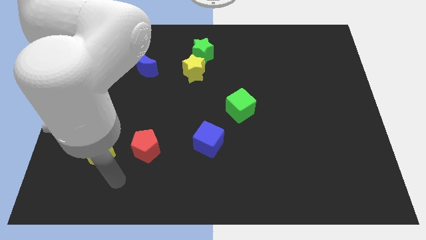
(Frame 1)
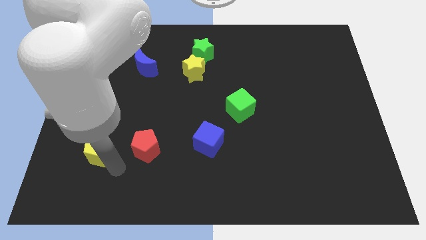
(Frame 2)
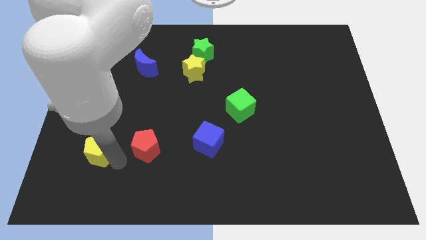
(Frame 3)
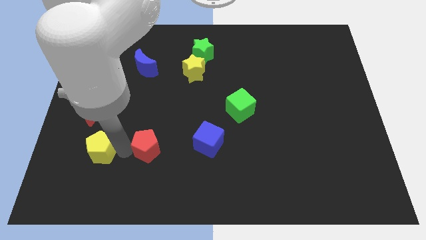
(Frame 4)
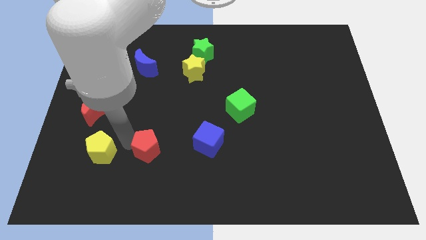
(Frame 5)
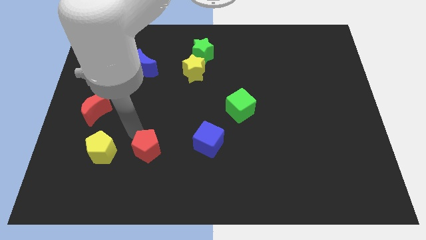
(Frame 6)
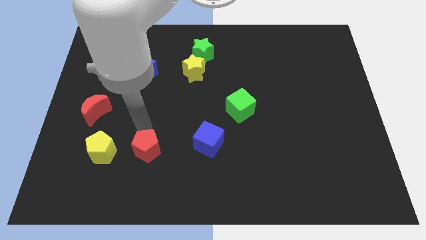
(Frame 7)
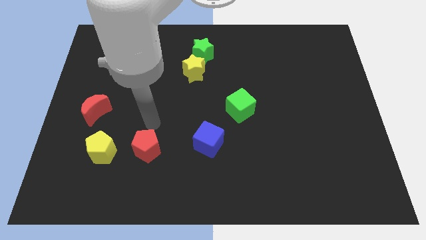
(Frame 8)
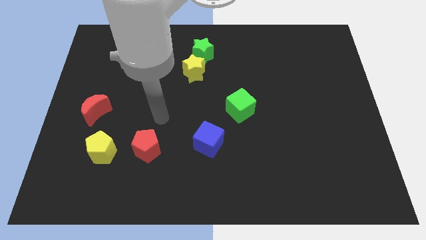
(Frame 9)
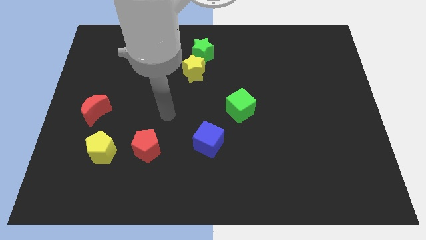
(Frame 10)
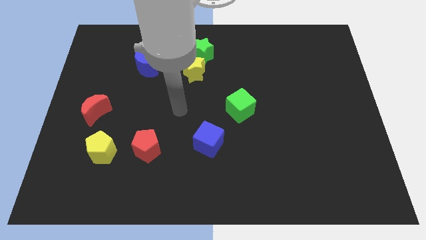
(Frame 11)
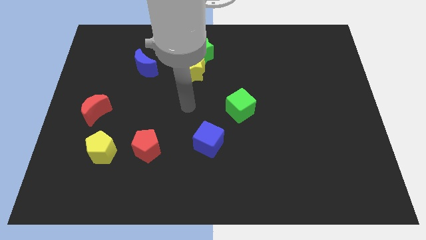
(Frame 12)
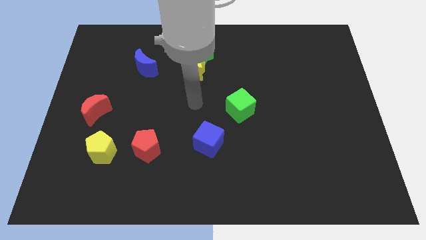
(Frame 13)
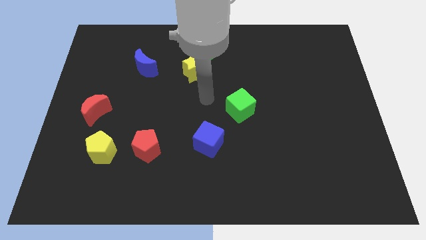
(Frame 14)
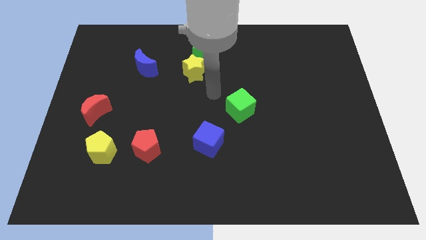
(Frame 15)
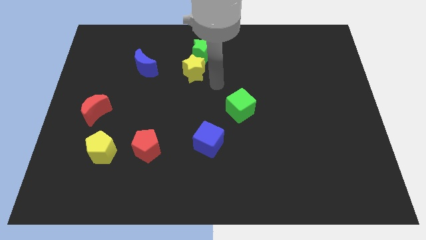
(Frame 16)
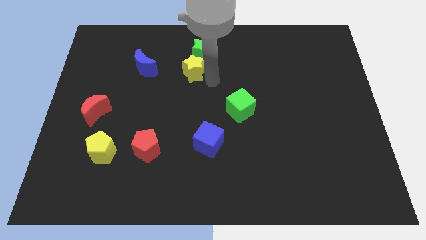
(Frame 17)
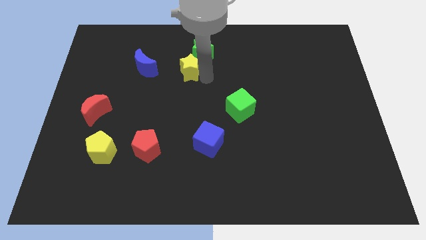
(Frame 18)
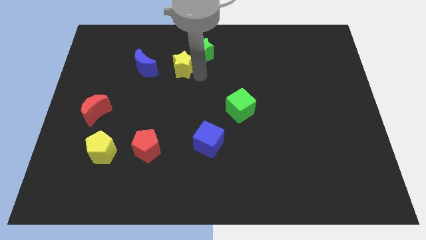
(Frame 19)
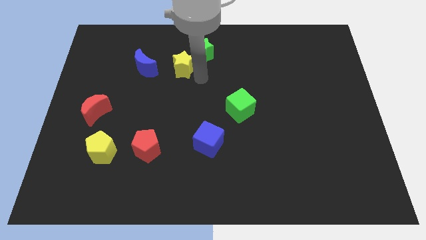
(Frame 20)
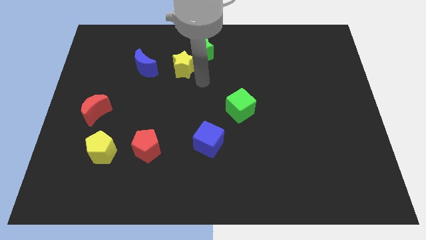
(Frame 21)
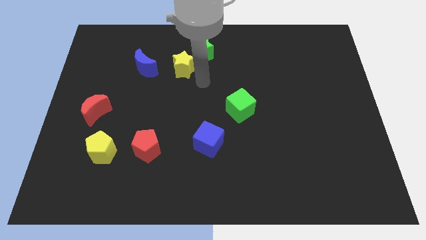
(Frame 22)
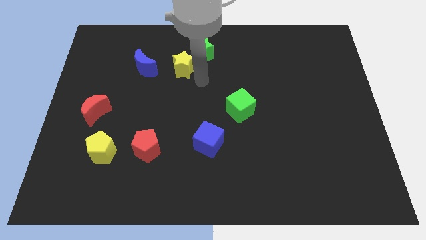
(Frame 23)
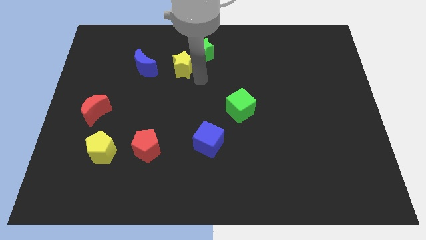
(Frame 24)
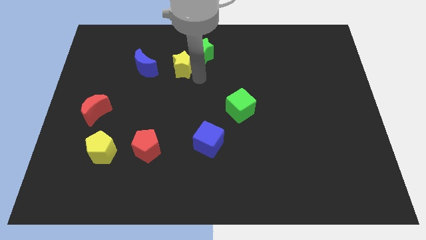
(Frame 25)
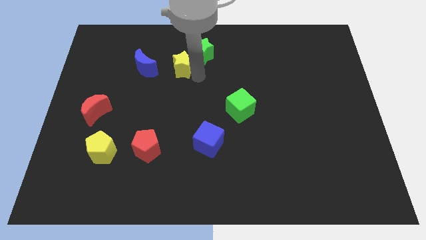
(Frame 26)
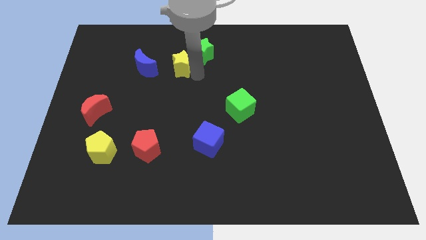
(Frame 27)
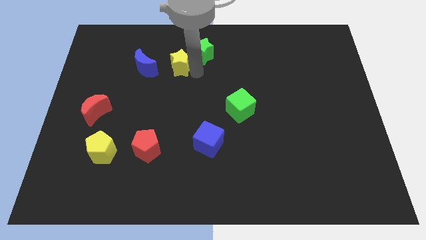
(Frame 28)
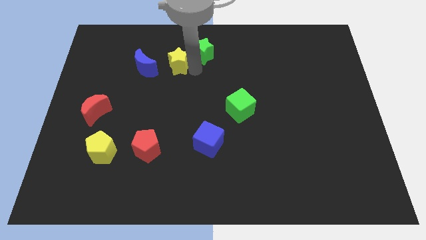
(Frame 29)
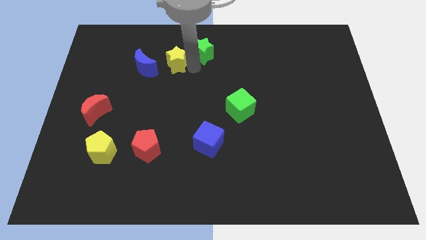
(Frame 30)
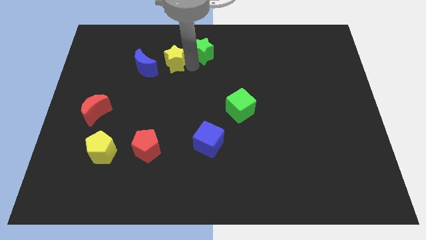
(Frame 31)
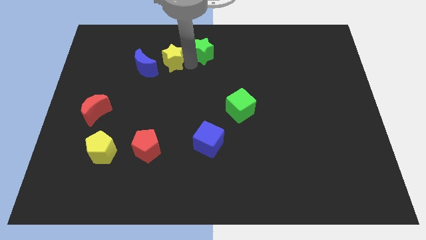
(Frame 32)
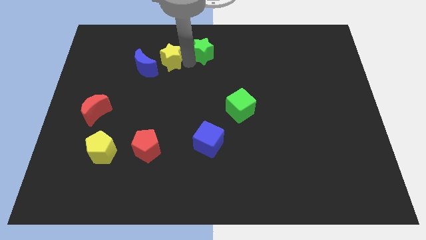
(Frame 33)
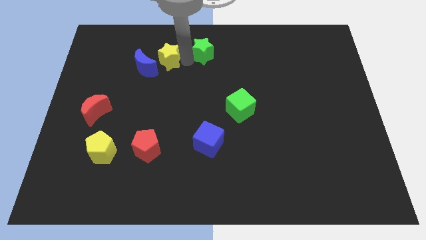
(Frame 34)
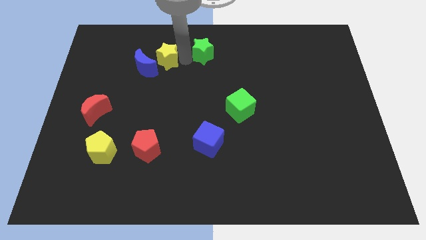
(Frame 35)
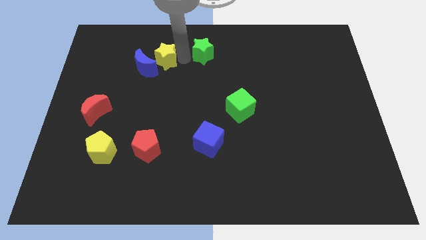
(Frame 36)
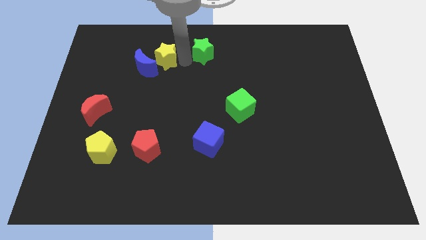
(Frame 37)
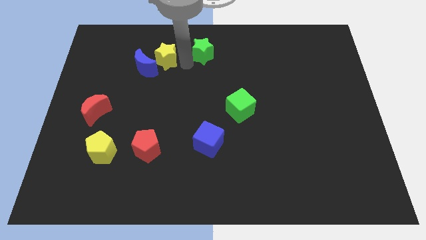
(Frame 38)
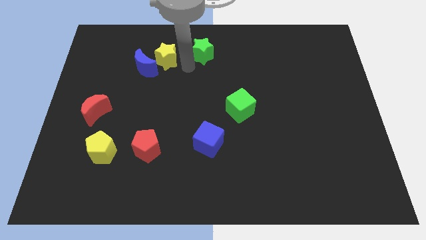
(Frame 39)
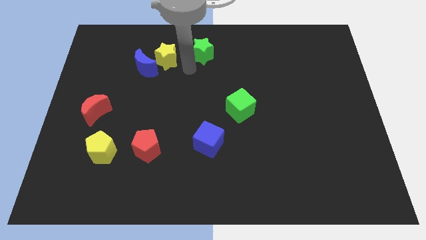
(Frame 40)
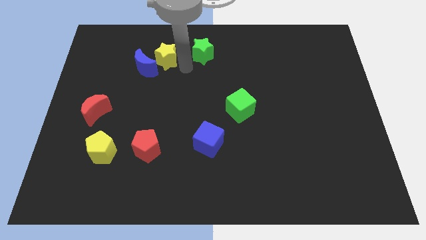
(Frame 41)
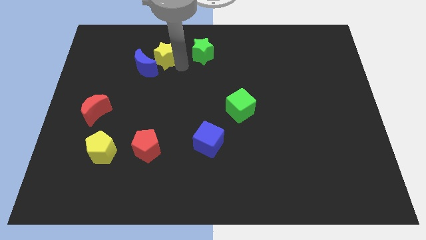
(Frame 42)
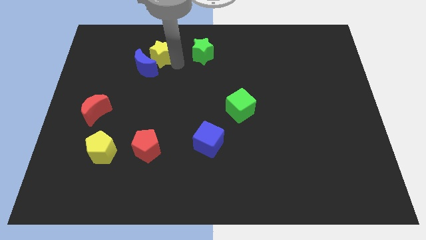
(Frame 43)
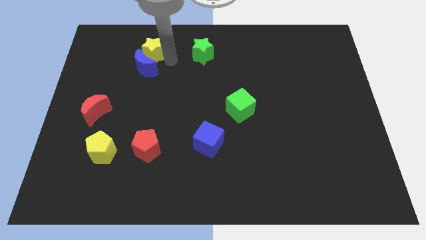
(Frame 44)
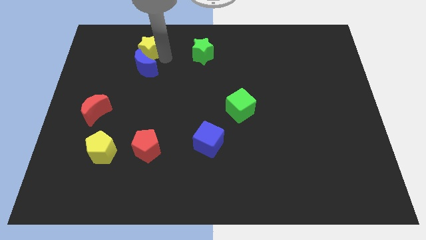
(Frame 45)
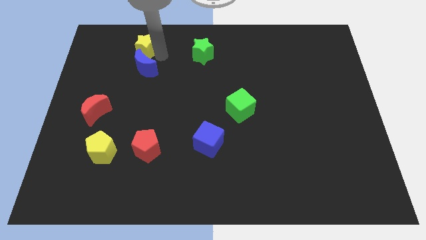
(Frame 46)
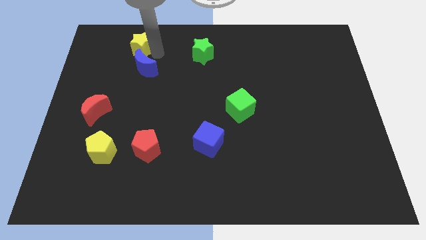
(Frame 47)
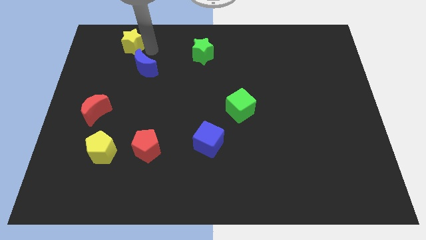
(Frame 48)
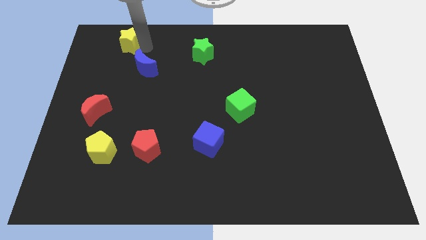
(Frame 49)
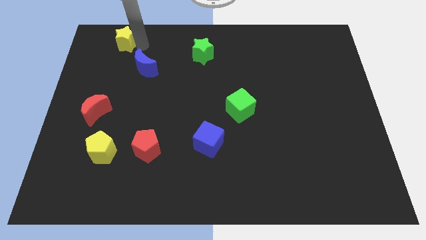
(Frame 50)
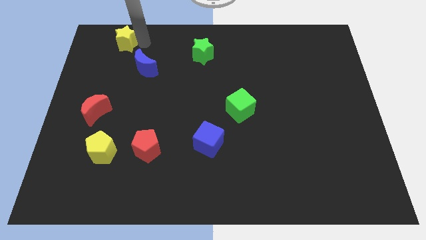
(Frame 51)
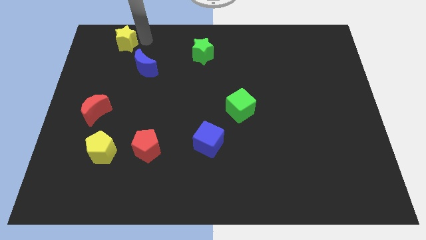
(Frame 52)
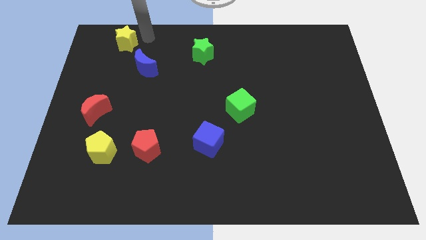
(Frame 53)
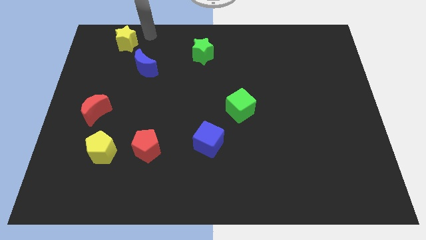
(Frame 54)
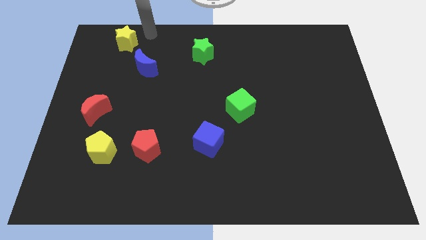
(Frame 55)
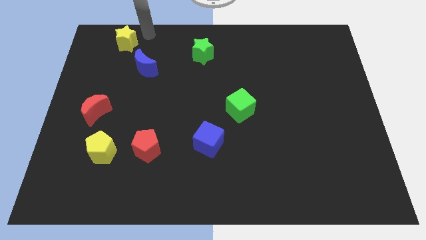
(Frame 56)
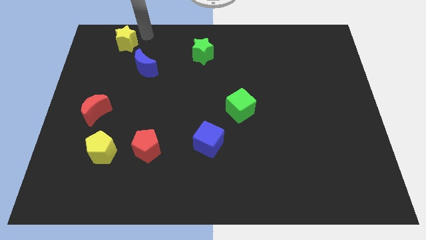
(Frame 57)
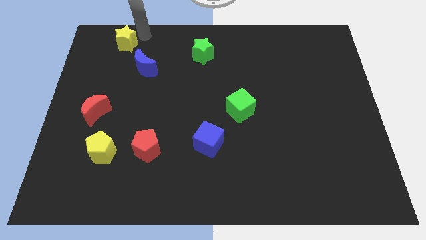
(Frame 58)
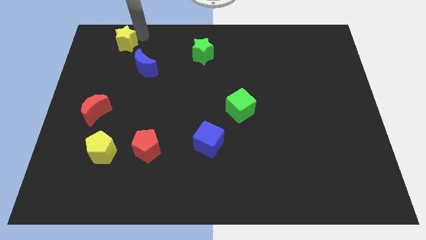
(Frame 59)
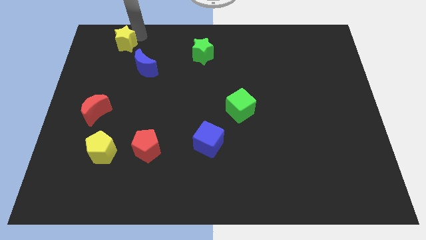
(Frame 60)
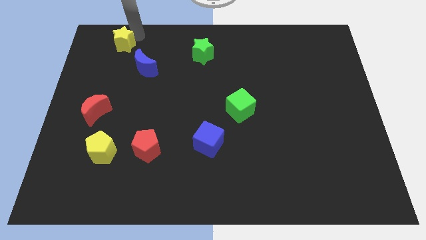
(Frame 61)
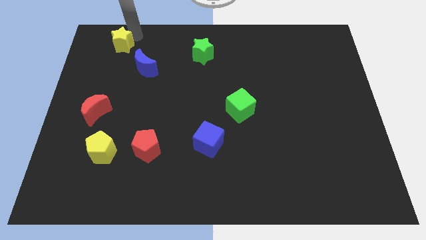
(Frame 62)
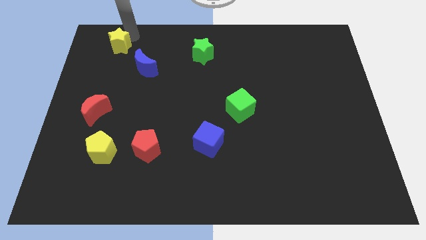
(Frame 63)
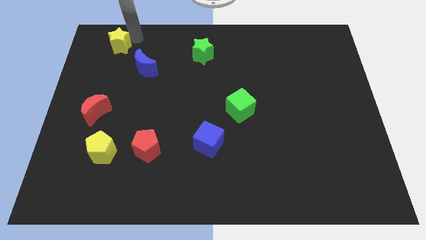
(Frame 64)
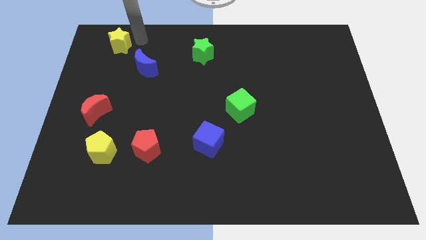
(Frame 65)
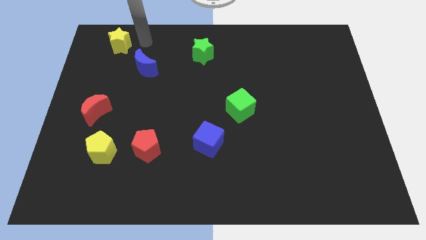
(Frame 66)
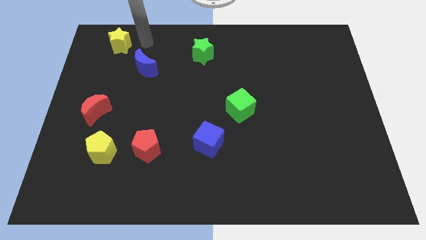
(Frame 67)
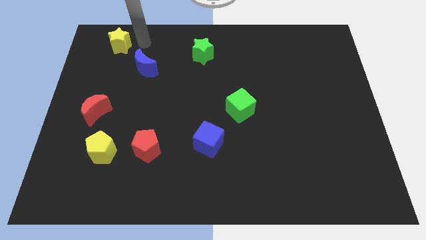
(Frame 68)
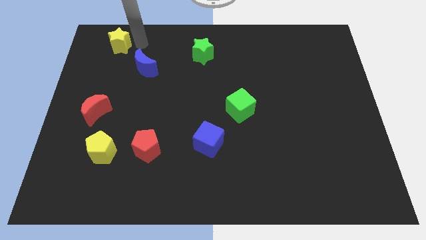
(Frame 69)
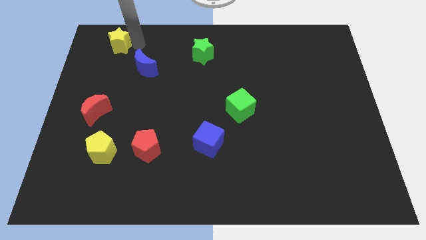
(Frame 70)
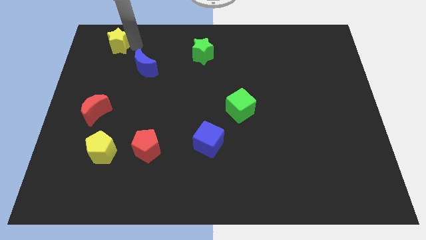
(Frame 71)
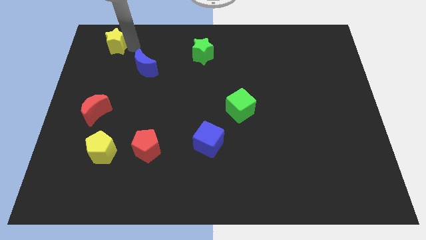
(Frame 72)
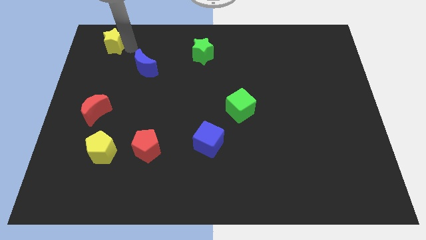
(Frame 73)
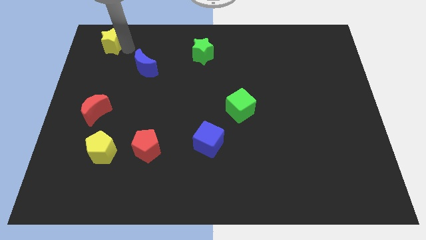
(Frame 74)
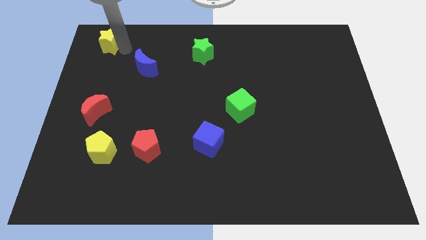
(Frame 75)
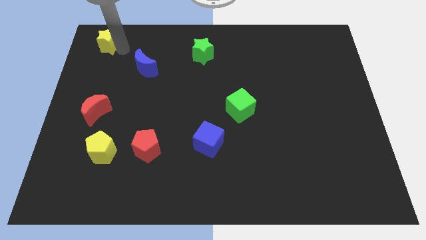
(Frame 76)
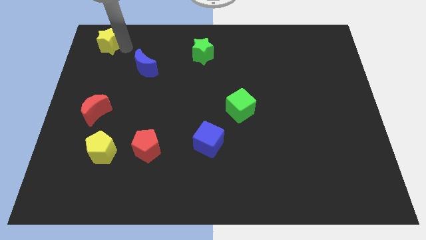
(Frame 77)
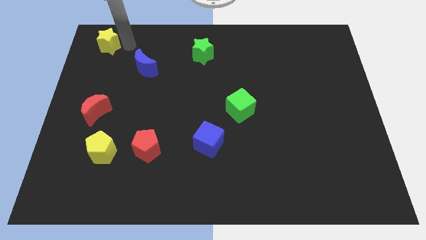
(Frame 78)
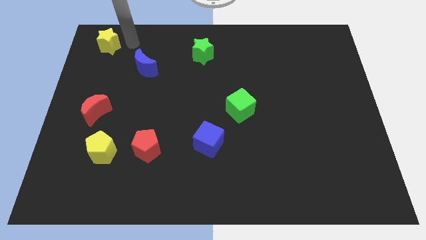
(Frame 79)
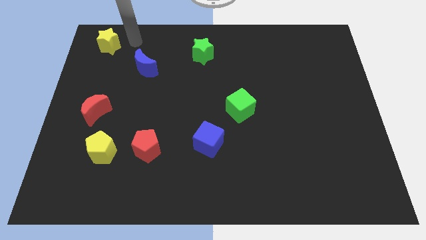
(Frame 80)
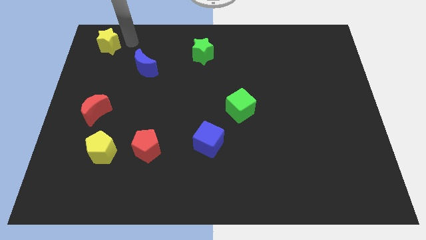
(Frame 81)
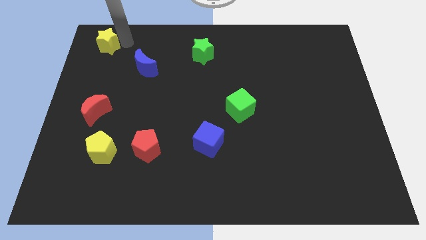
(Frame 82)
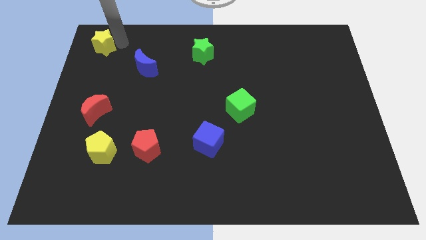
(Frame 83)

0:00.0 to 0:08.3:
move the yellow star to the upper left corner
